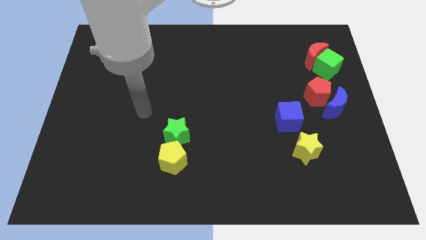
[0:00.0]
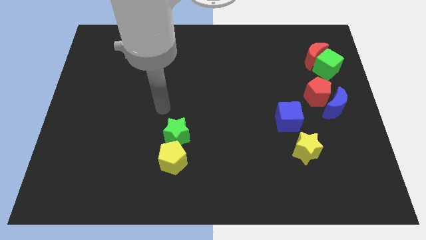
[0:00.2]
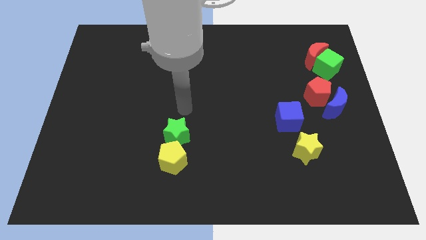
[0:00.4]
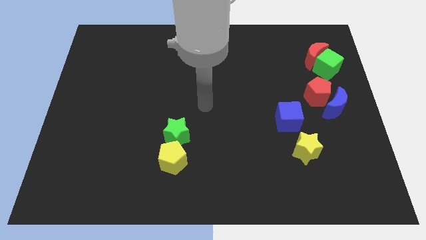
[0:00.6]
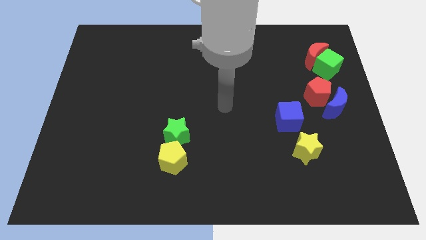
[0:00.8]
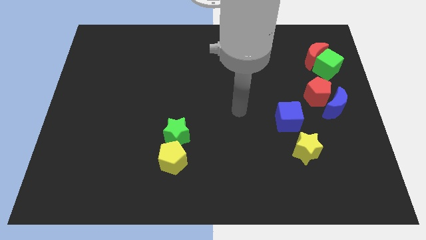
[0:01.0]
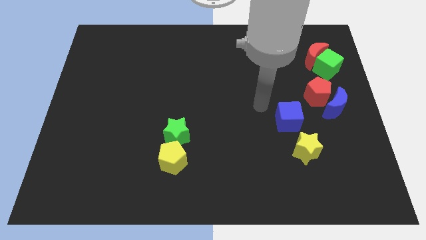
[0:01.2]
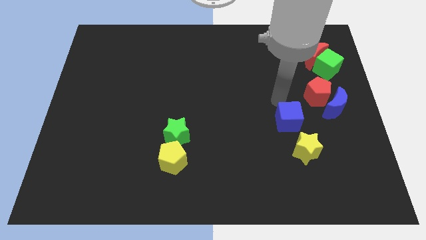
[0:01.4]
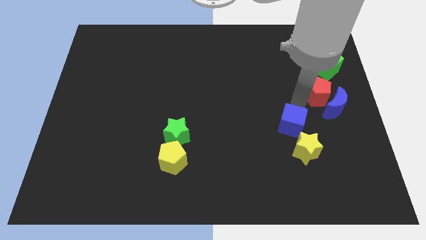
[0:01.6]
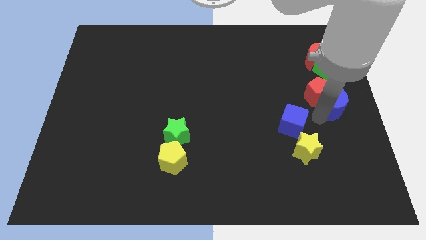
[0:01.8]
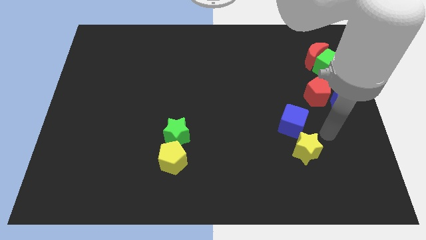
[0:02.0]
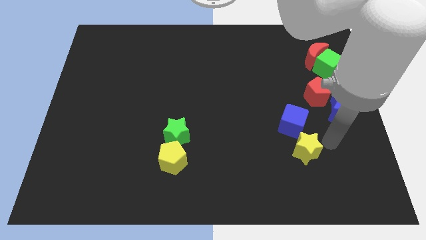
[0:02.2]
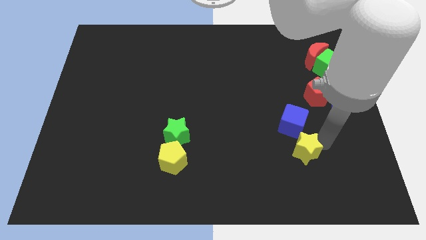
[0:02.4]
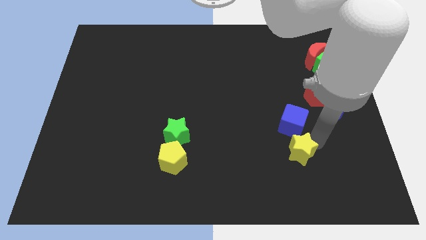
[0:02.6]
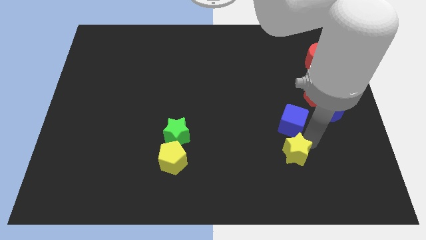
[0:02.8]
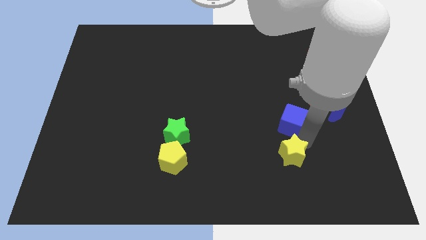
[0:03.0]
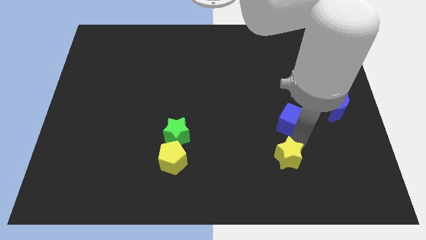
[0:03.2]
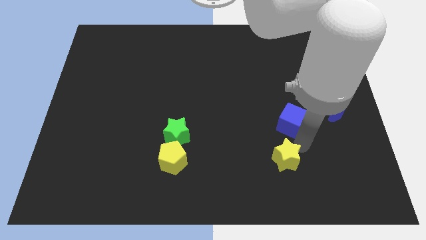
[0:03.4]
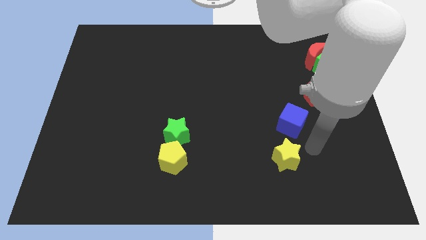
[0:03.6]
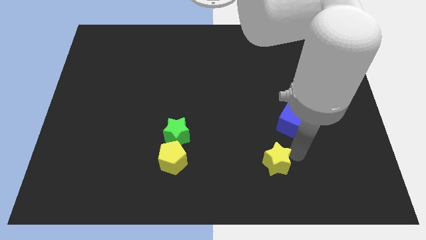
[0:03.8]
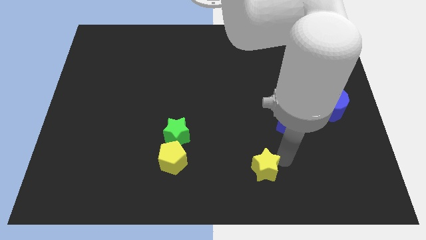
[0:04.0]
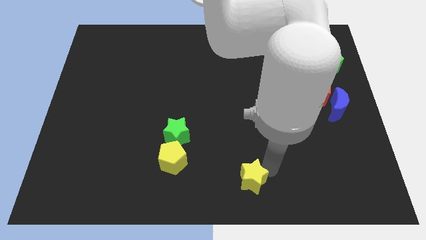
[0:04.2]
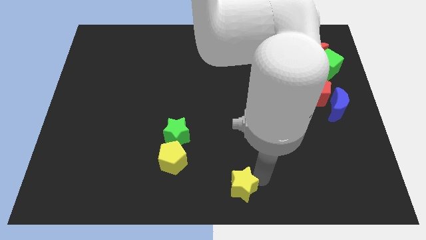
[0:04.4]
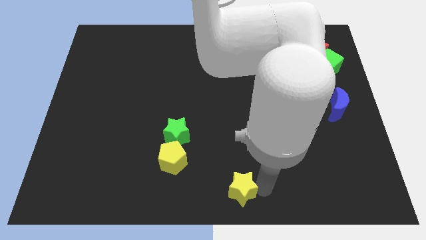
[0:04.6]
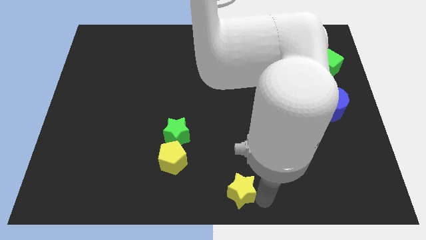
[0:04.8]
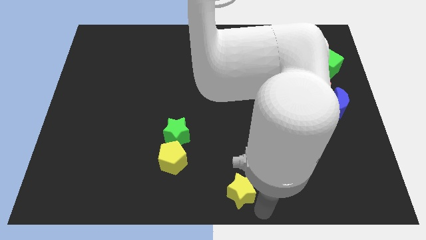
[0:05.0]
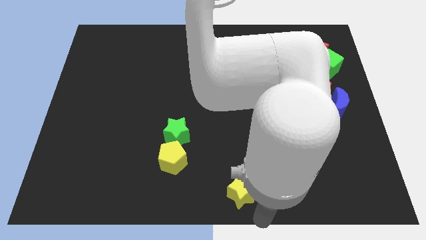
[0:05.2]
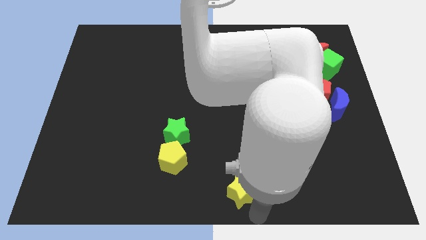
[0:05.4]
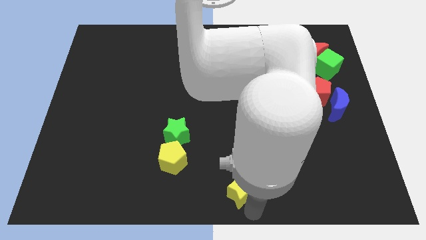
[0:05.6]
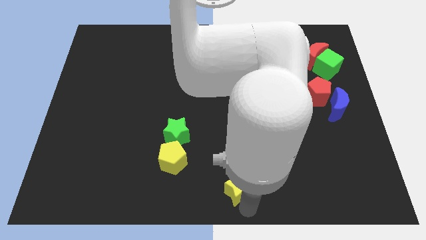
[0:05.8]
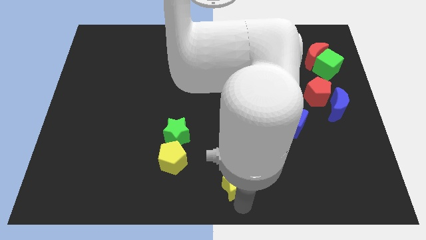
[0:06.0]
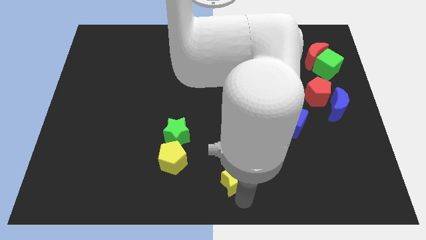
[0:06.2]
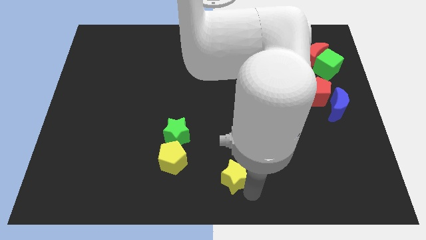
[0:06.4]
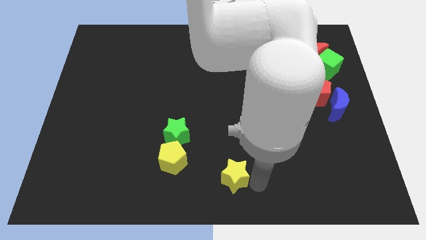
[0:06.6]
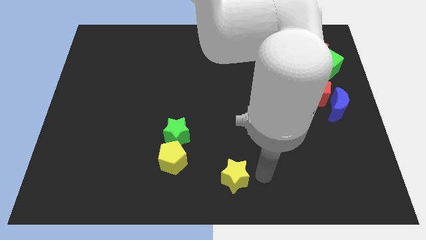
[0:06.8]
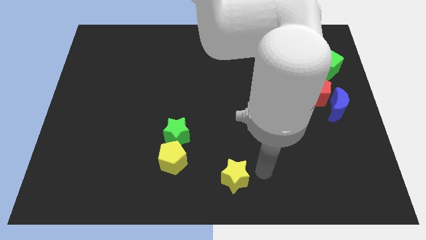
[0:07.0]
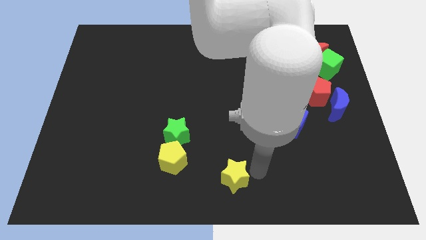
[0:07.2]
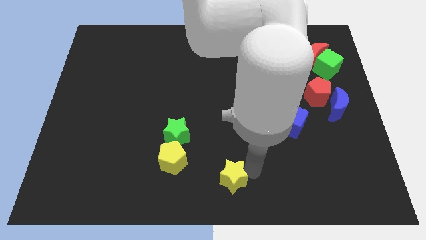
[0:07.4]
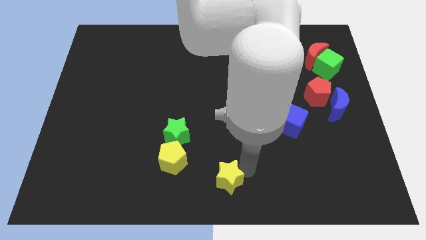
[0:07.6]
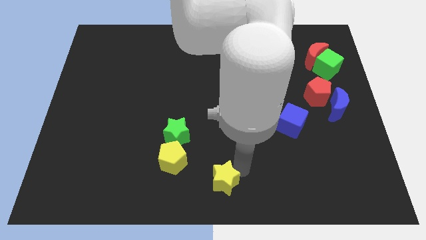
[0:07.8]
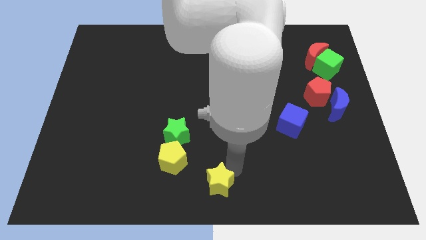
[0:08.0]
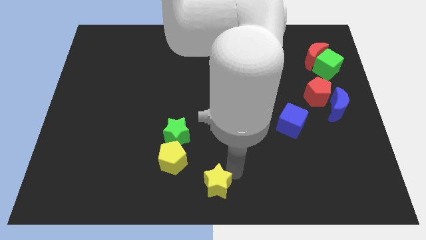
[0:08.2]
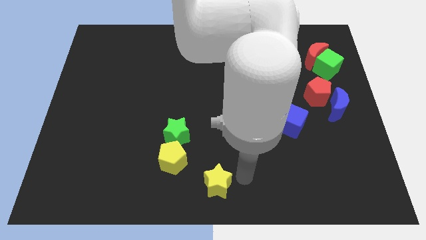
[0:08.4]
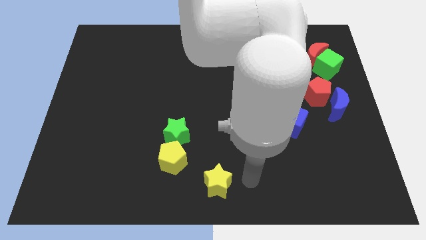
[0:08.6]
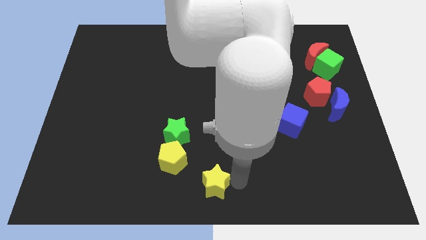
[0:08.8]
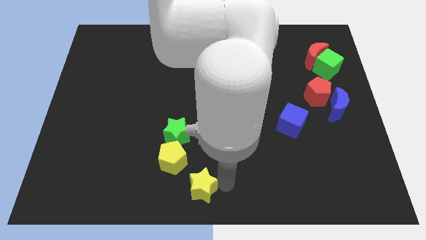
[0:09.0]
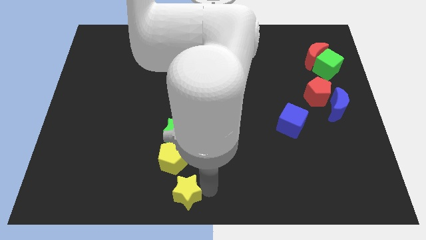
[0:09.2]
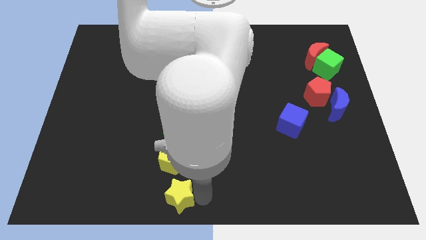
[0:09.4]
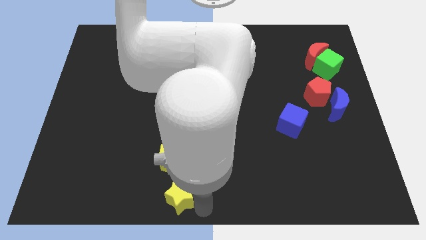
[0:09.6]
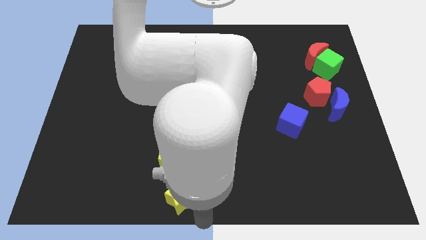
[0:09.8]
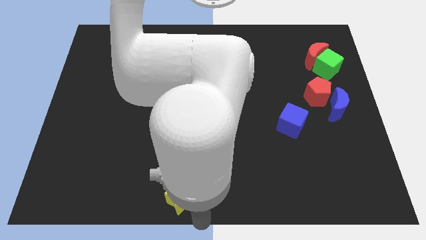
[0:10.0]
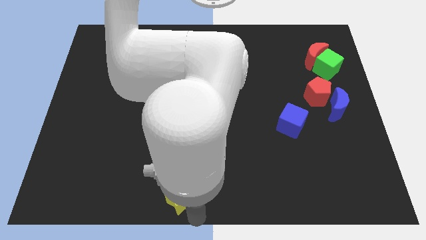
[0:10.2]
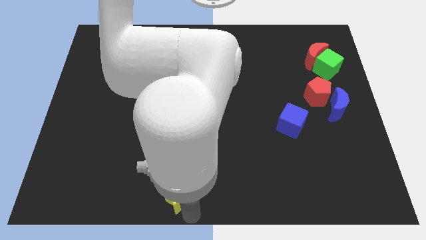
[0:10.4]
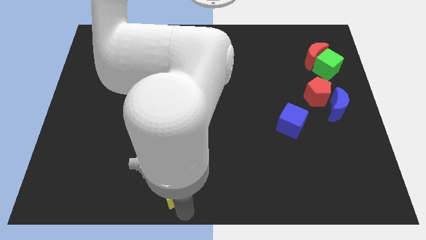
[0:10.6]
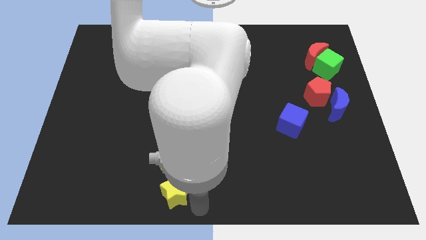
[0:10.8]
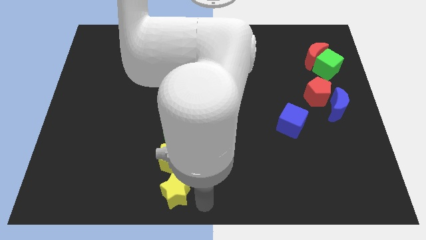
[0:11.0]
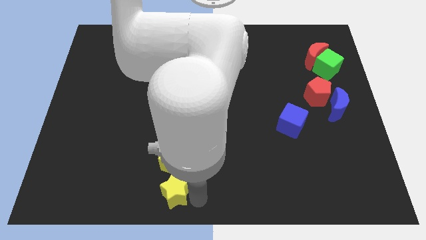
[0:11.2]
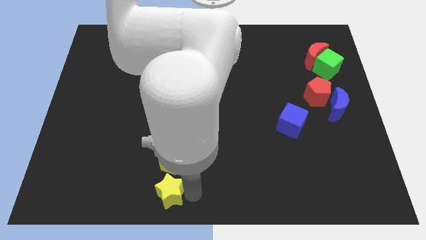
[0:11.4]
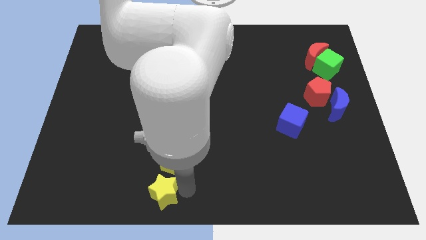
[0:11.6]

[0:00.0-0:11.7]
put the yellow star to the bottom left side of the yellow pentagon
